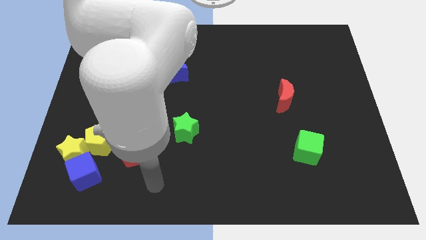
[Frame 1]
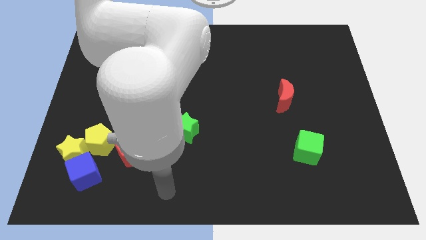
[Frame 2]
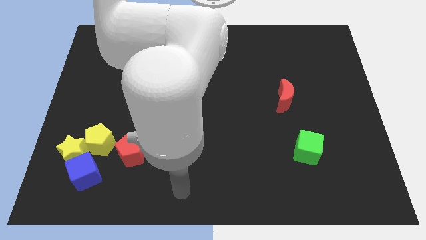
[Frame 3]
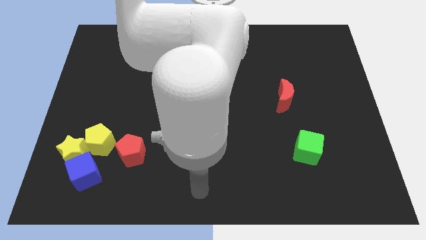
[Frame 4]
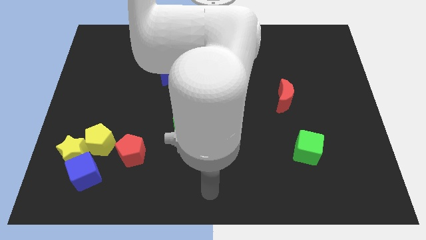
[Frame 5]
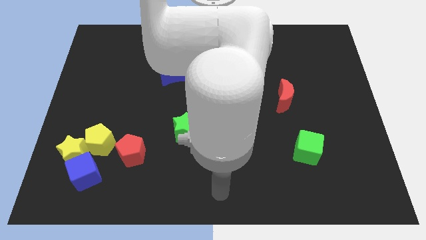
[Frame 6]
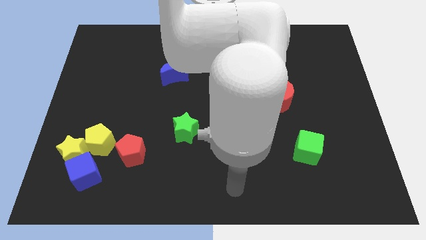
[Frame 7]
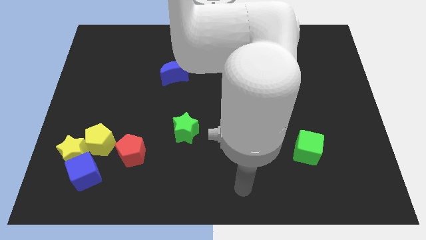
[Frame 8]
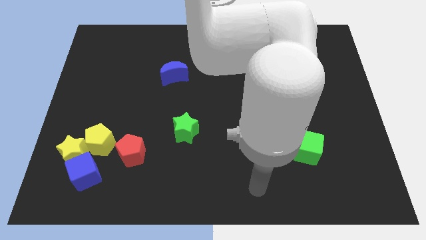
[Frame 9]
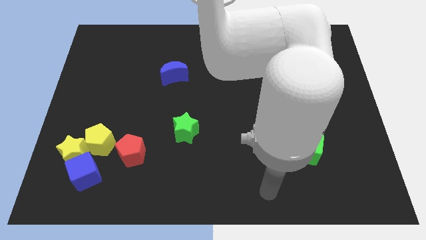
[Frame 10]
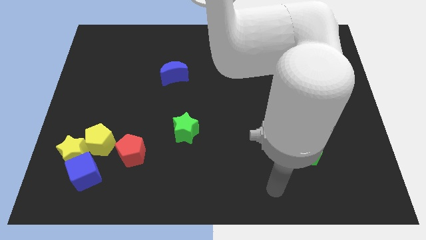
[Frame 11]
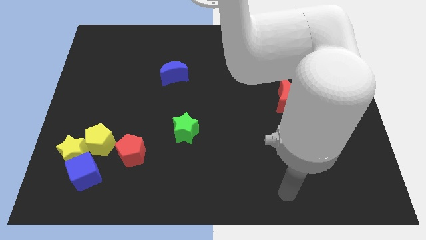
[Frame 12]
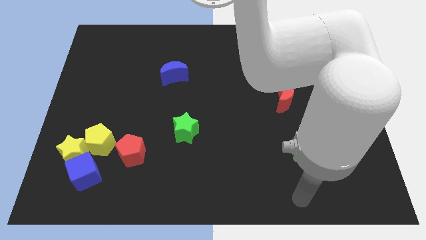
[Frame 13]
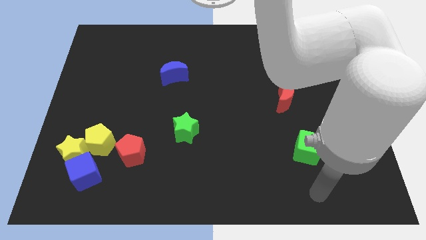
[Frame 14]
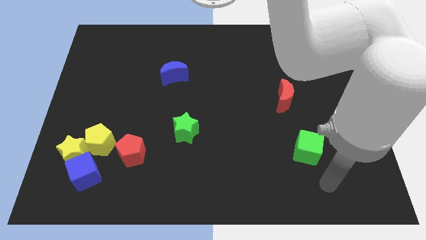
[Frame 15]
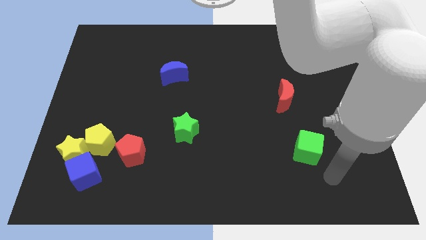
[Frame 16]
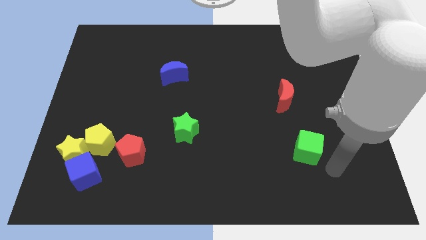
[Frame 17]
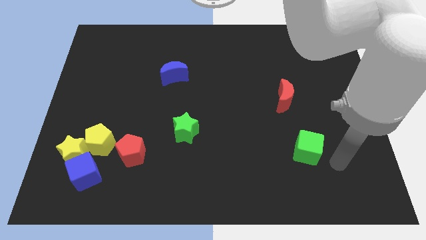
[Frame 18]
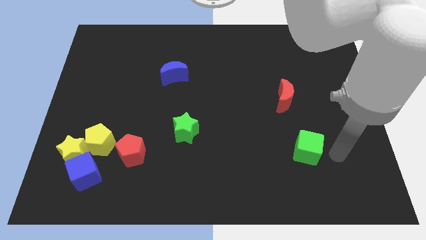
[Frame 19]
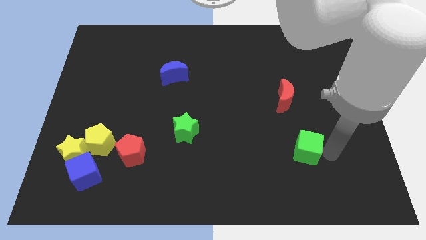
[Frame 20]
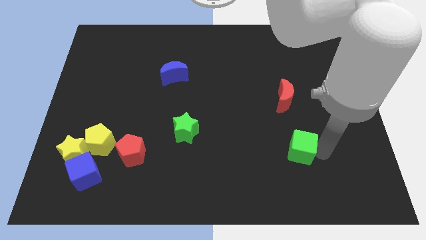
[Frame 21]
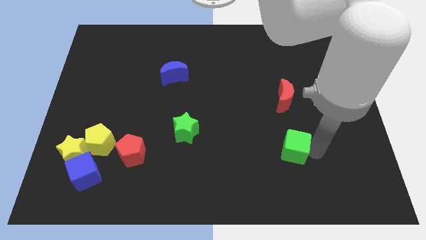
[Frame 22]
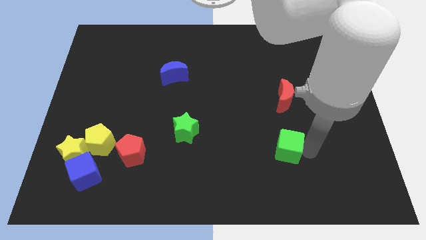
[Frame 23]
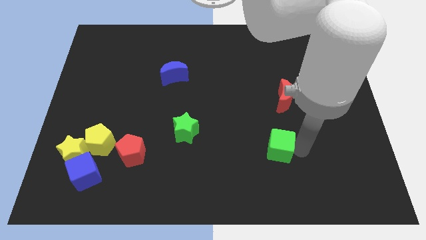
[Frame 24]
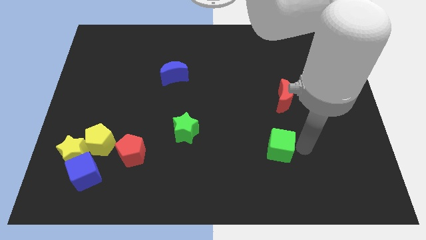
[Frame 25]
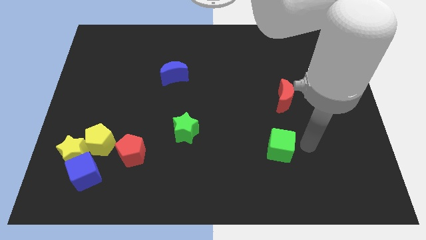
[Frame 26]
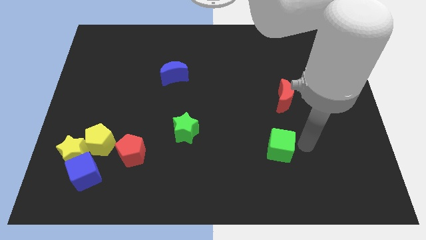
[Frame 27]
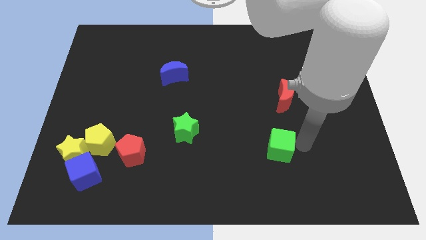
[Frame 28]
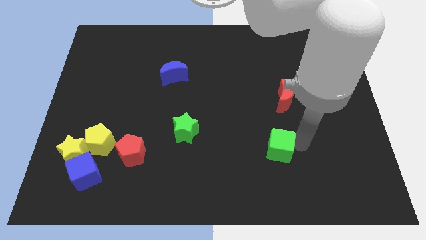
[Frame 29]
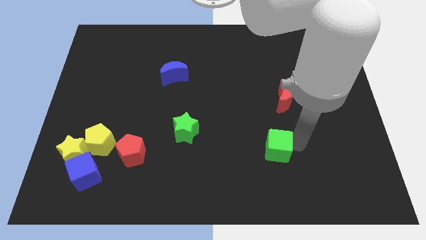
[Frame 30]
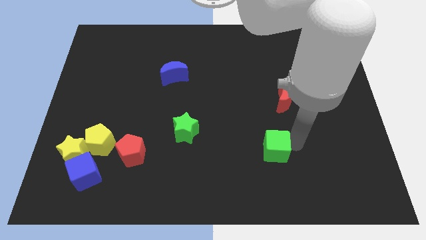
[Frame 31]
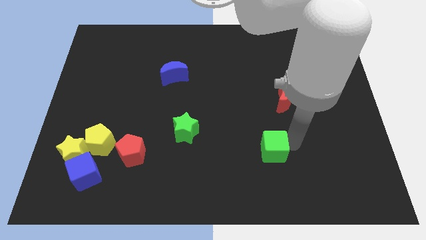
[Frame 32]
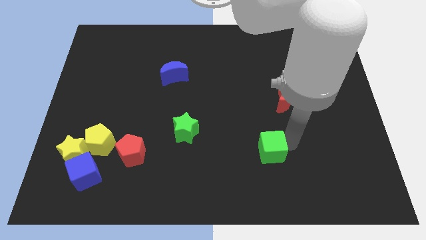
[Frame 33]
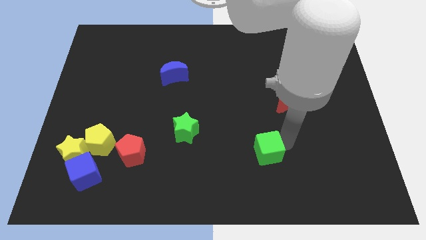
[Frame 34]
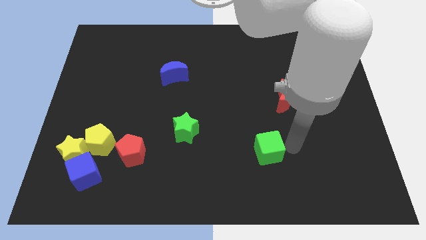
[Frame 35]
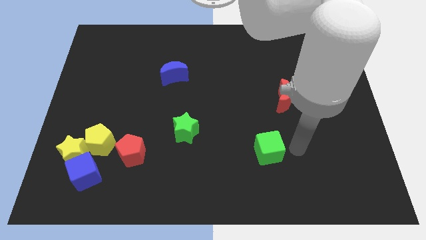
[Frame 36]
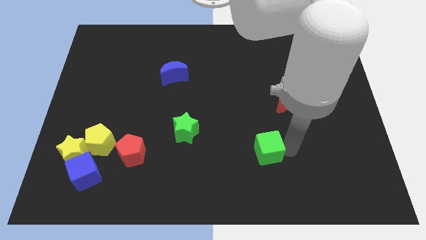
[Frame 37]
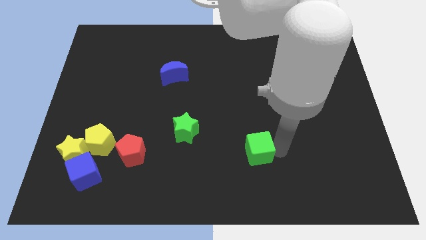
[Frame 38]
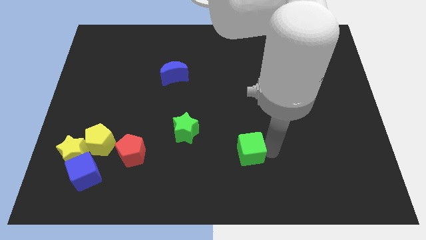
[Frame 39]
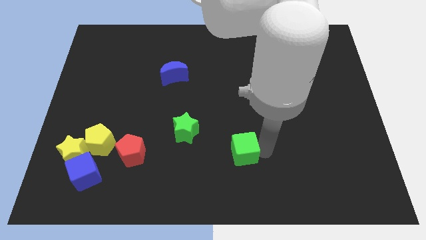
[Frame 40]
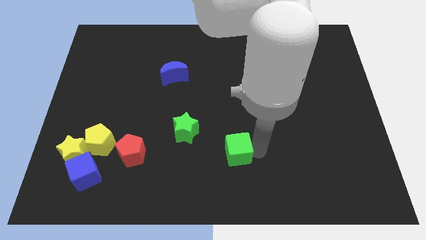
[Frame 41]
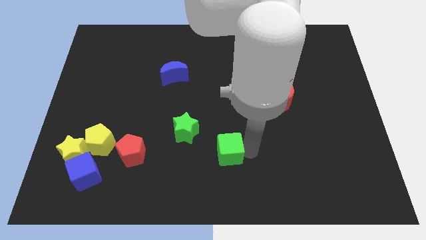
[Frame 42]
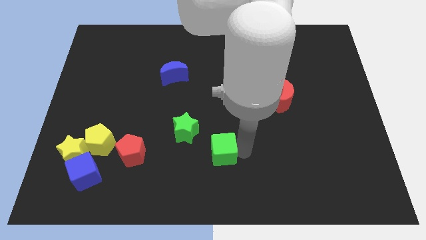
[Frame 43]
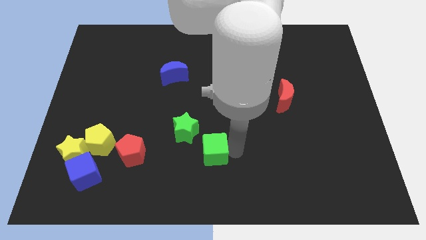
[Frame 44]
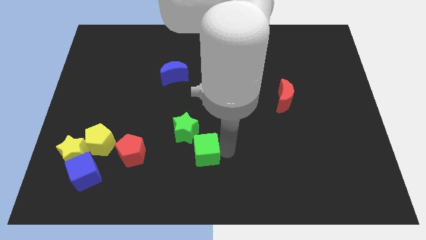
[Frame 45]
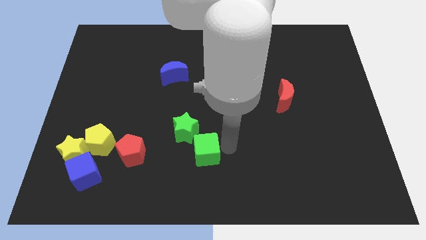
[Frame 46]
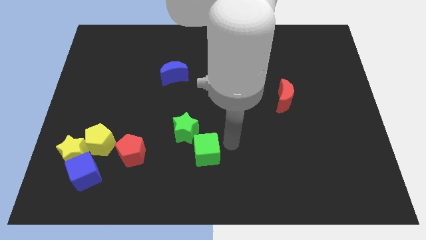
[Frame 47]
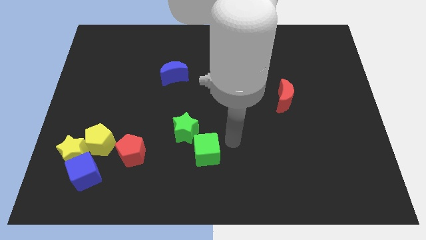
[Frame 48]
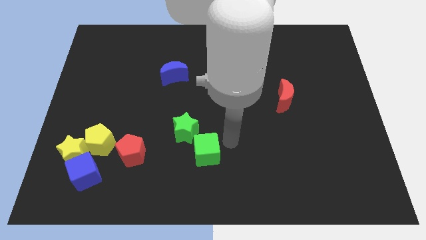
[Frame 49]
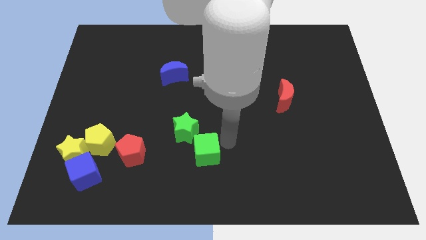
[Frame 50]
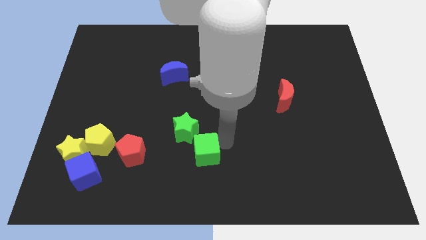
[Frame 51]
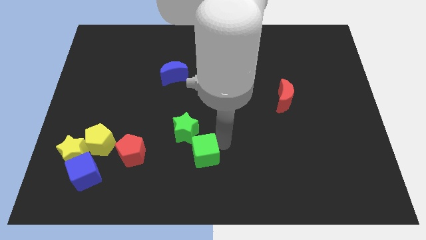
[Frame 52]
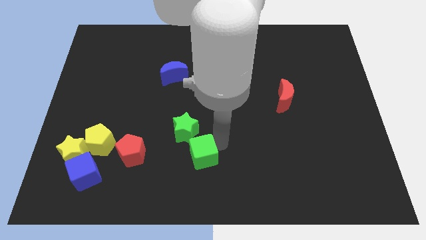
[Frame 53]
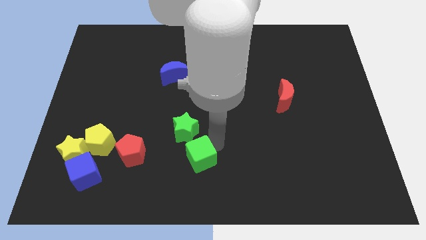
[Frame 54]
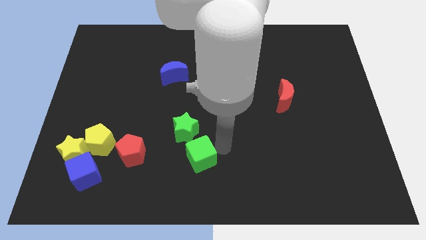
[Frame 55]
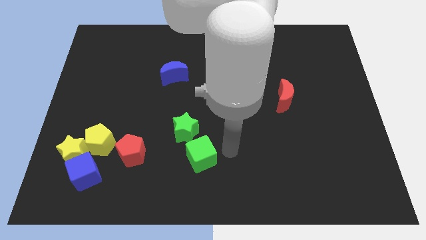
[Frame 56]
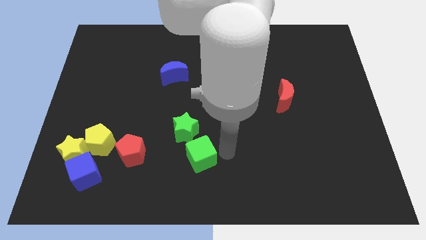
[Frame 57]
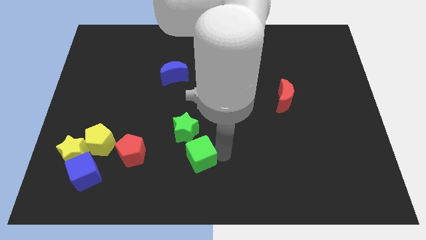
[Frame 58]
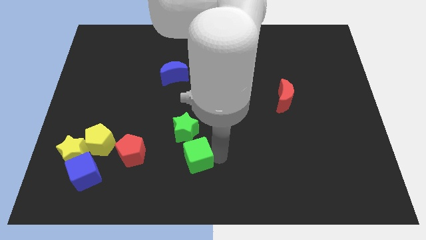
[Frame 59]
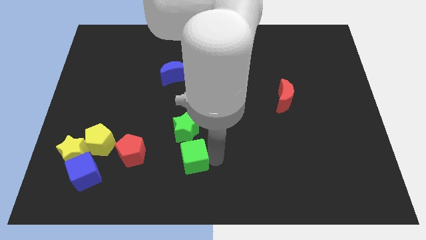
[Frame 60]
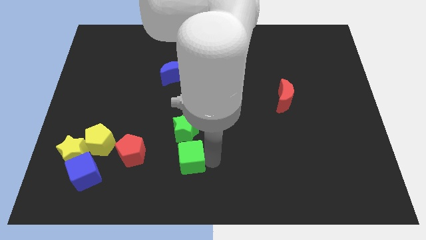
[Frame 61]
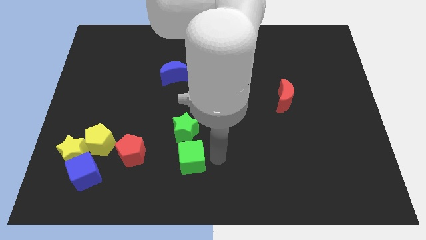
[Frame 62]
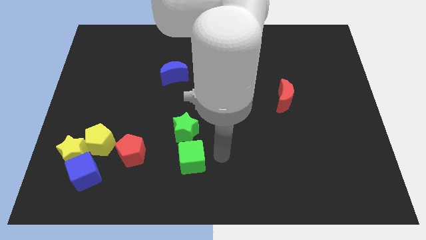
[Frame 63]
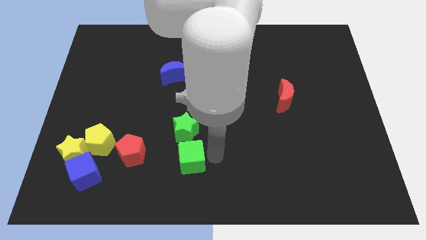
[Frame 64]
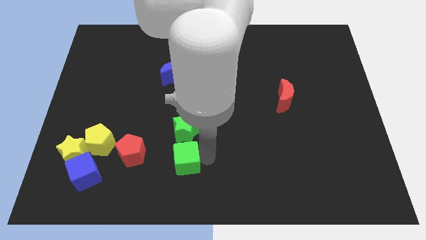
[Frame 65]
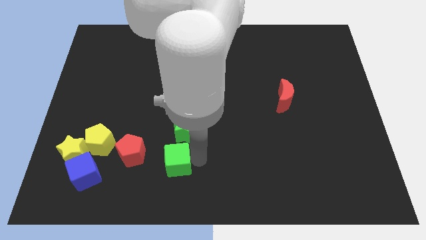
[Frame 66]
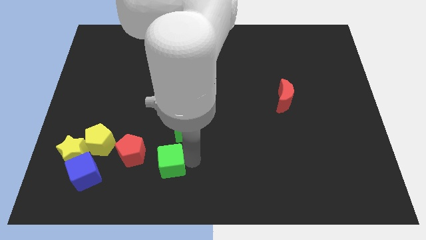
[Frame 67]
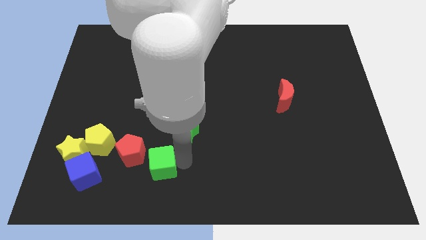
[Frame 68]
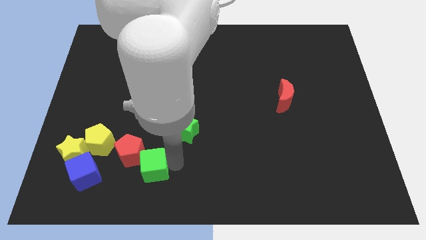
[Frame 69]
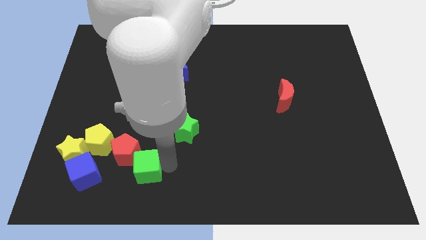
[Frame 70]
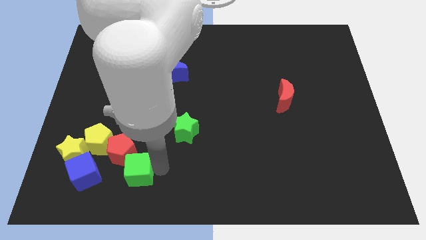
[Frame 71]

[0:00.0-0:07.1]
move the green cube diagonally down and to the right of the yellow pentagon
